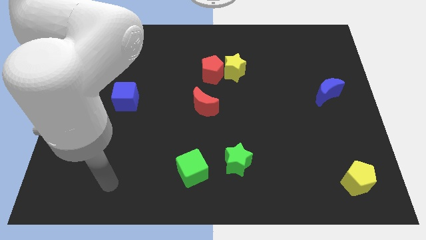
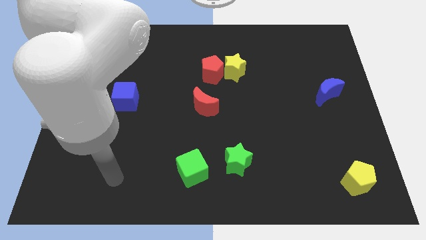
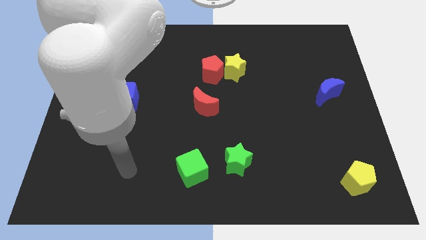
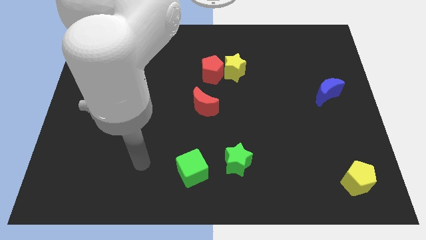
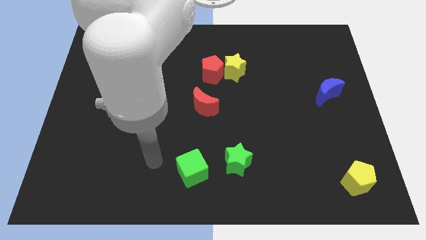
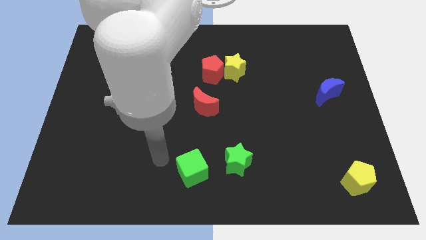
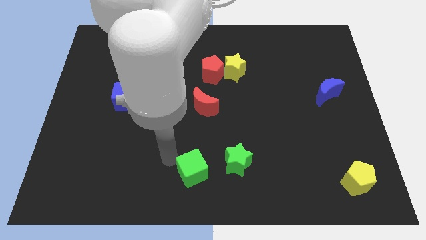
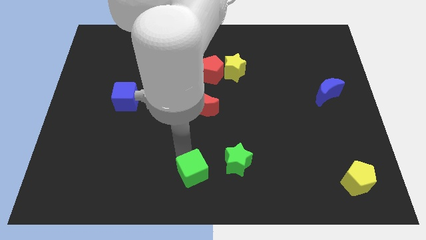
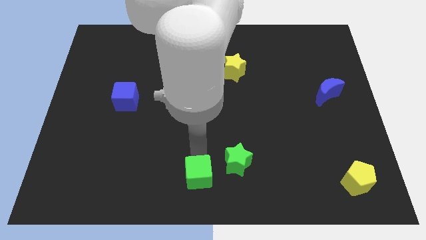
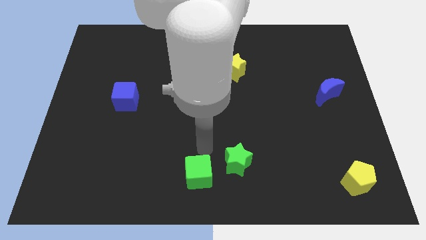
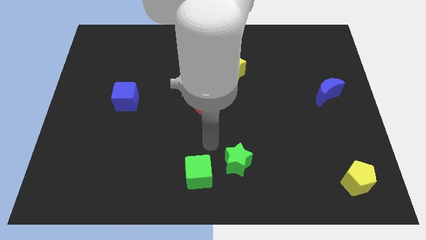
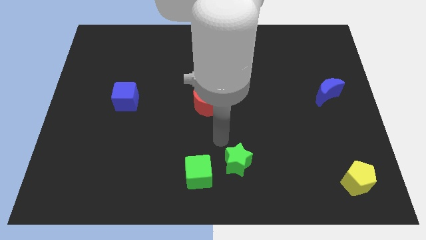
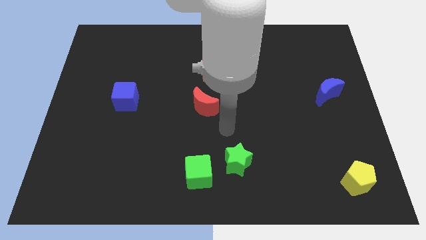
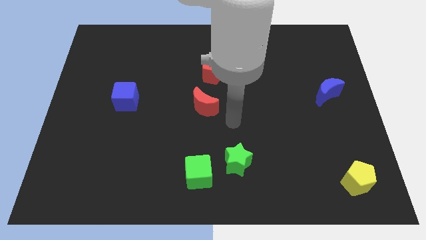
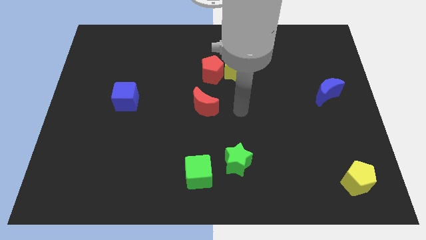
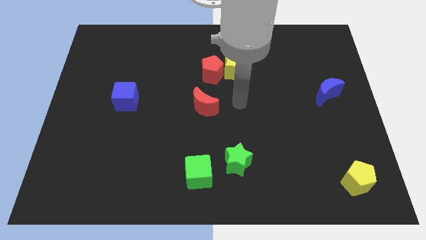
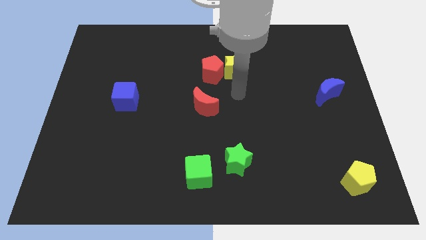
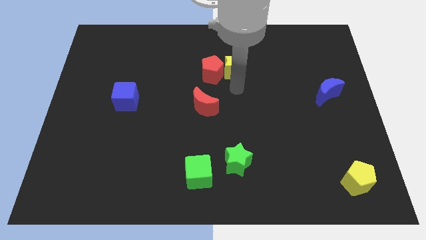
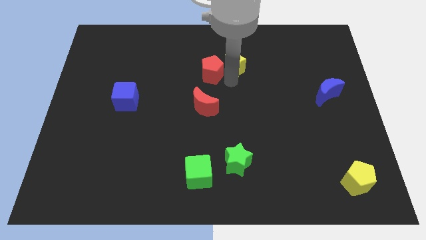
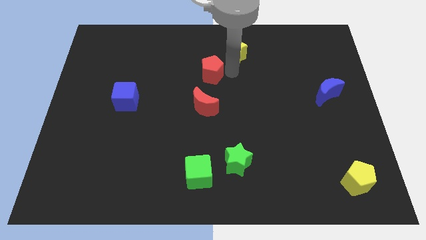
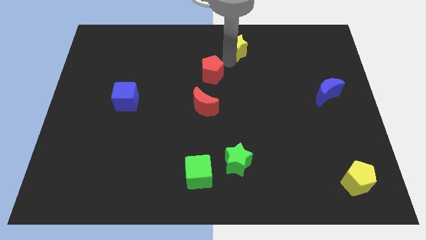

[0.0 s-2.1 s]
move the red pentagon away from the yellow star

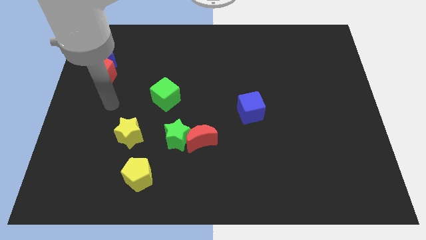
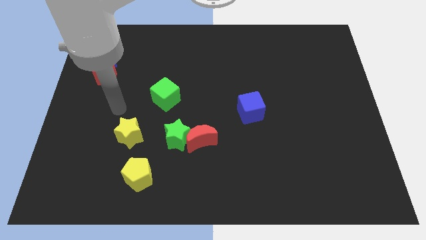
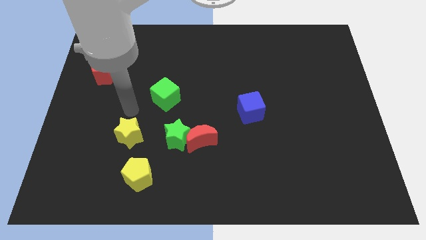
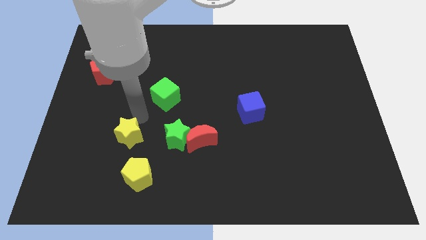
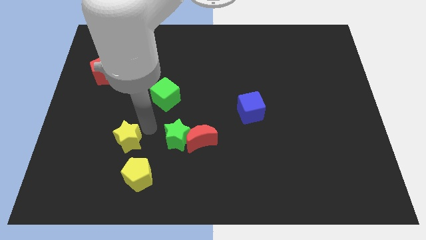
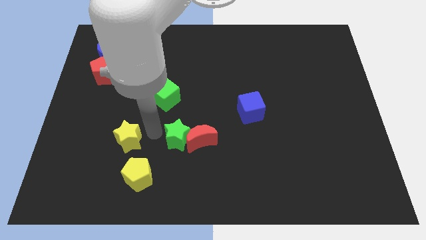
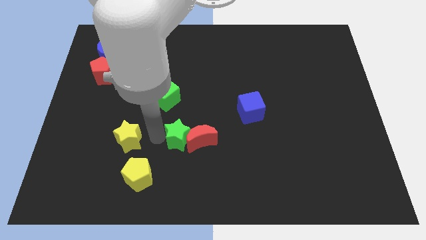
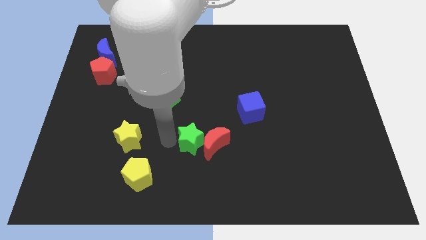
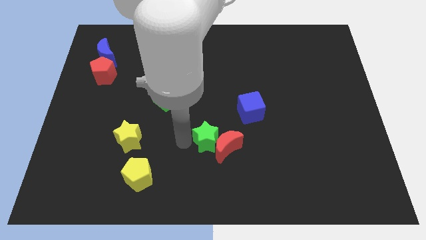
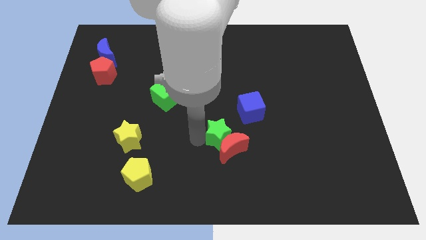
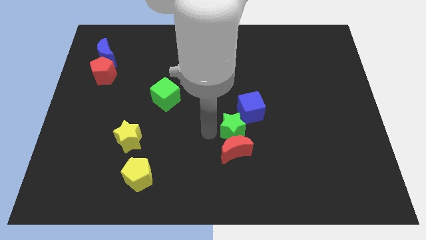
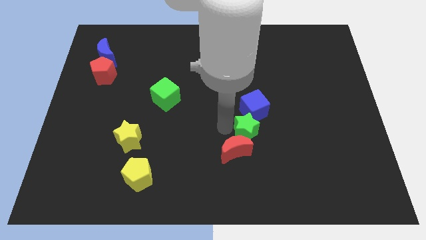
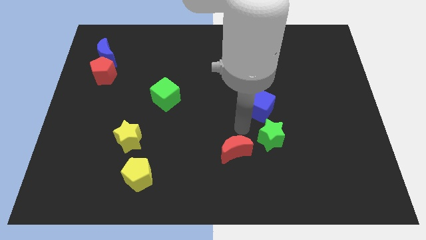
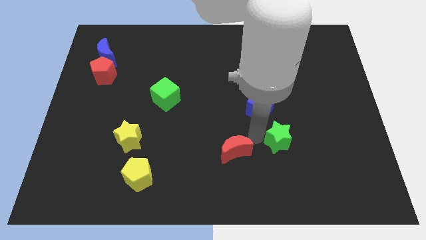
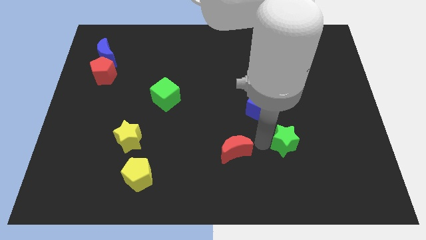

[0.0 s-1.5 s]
move the red moon away from the green star

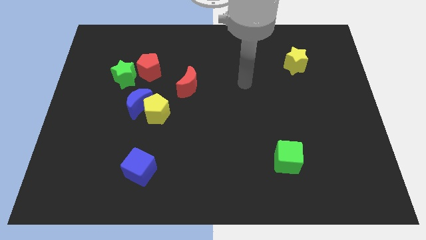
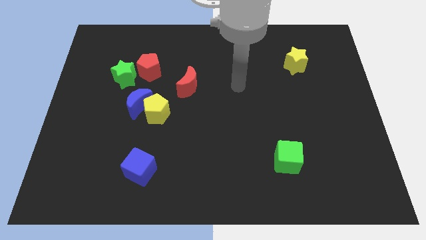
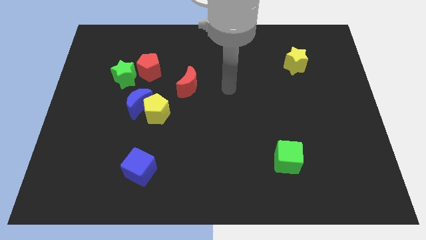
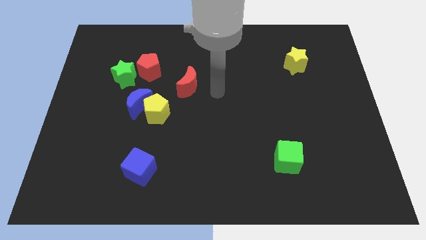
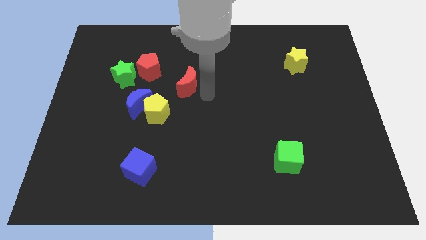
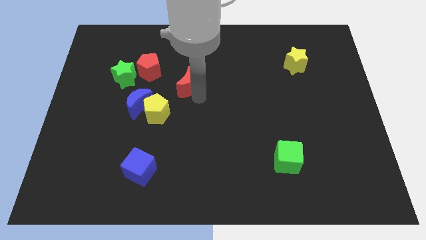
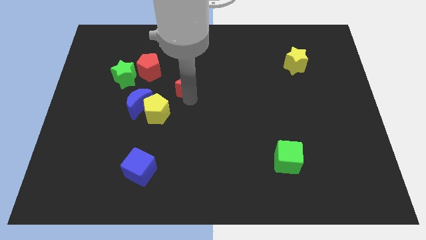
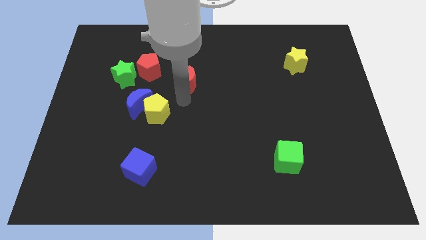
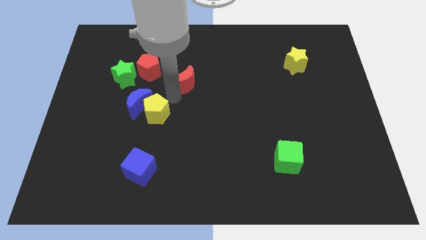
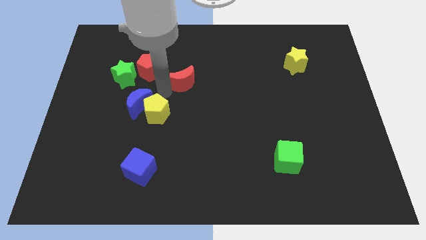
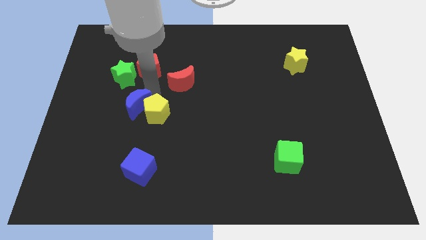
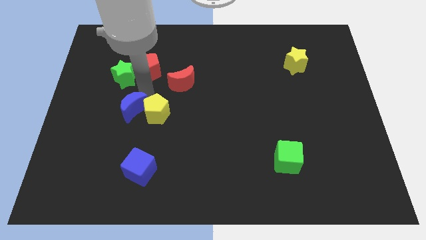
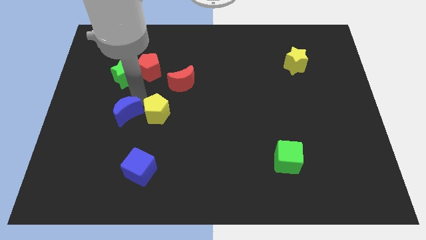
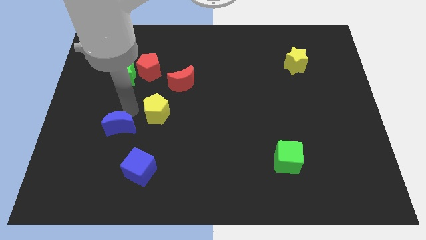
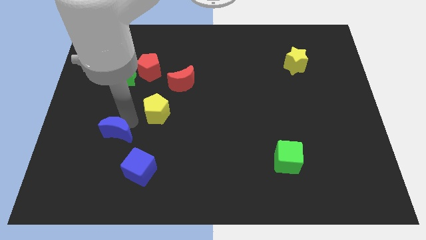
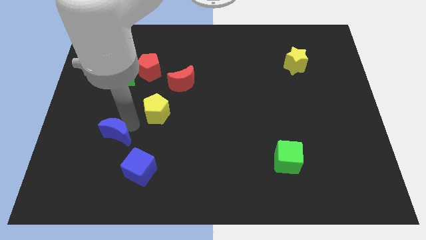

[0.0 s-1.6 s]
separate the yellow pentagon from the blue moon

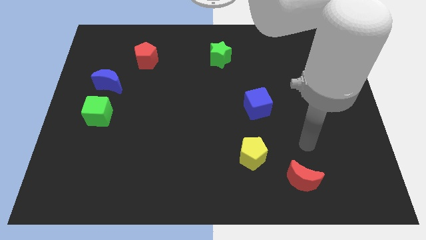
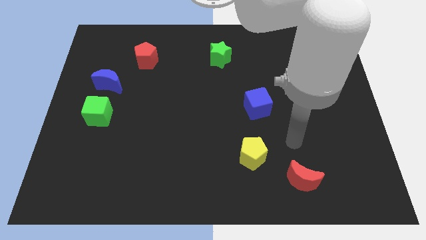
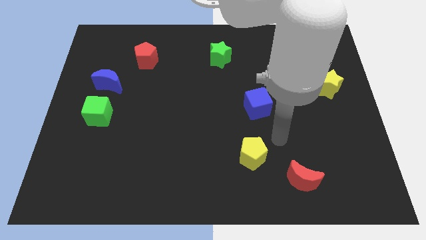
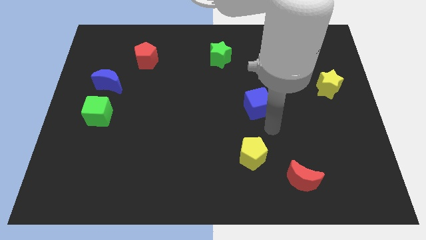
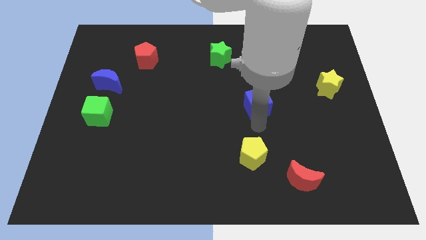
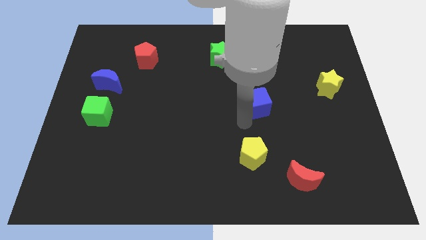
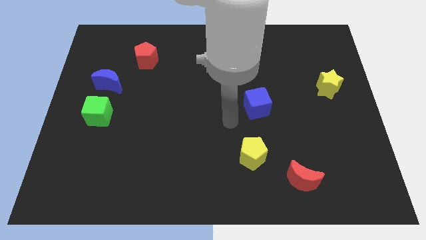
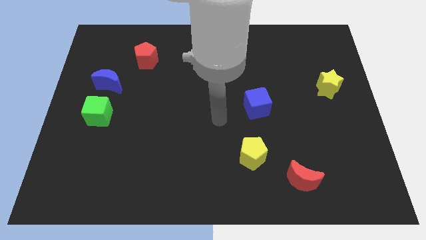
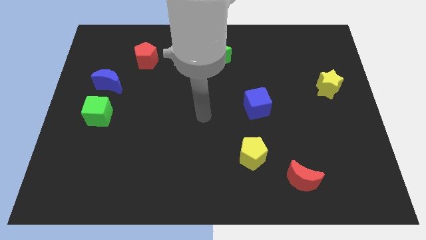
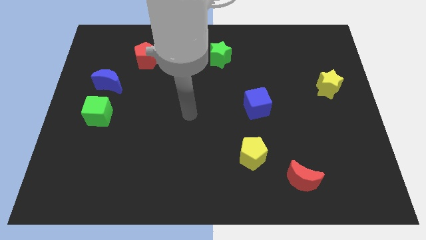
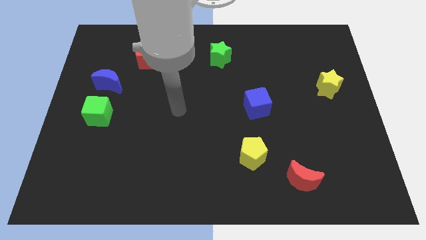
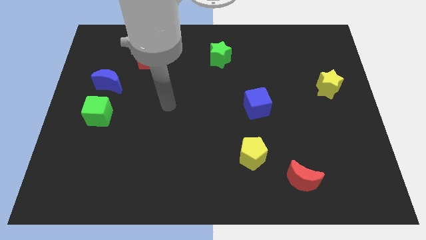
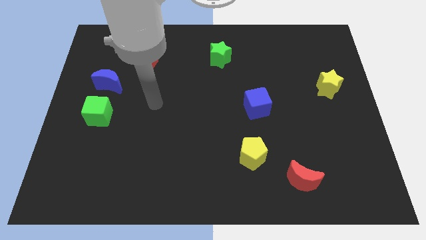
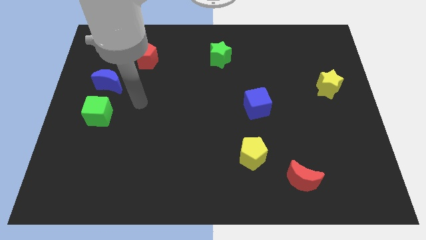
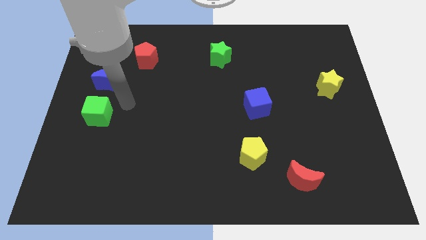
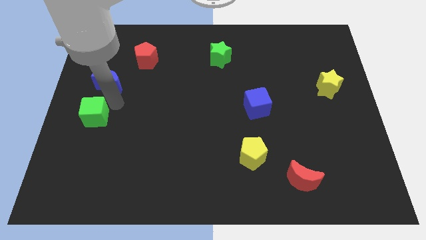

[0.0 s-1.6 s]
separate the blue moon from the green cube

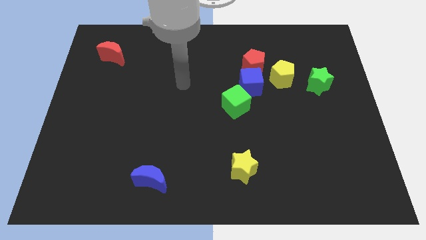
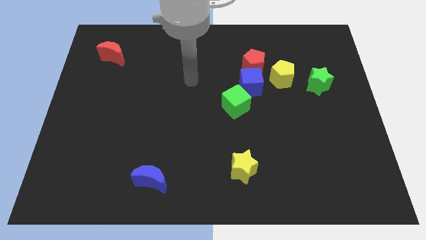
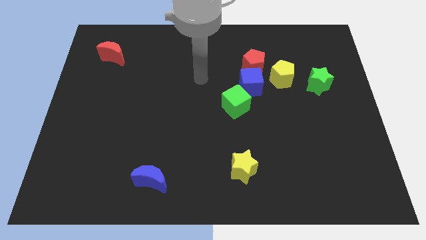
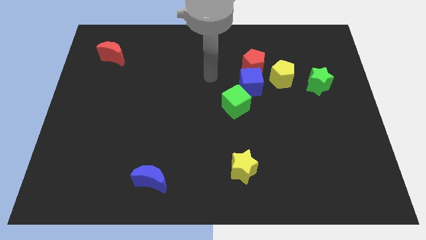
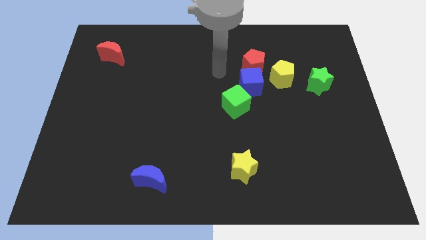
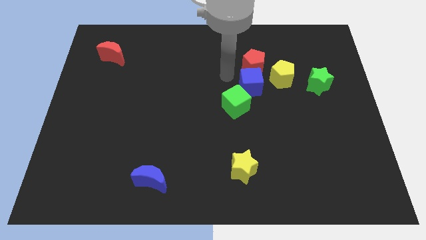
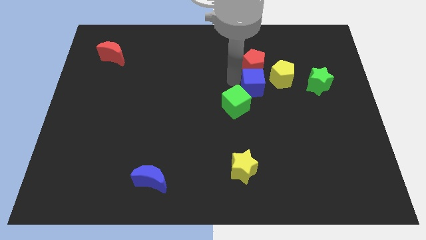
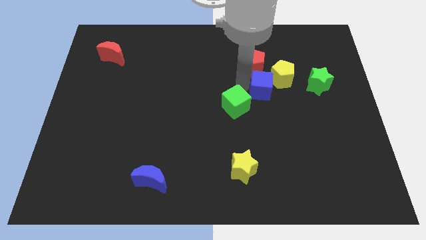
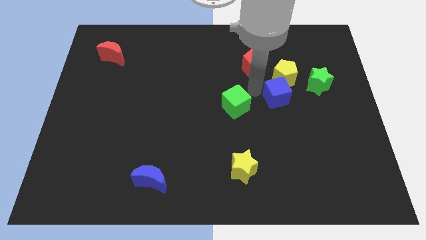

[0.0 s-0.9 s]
separate the green cube from the blue cube

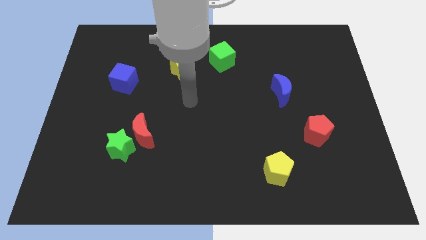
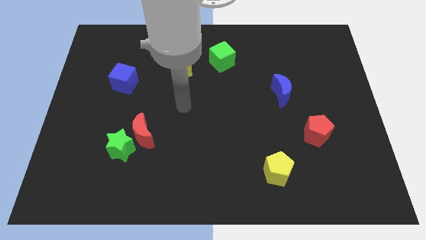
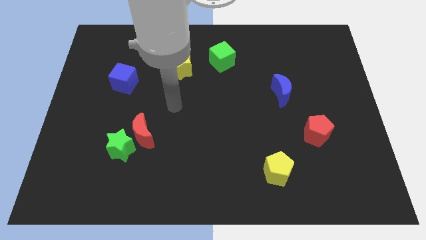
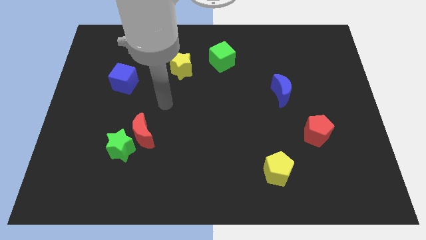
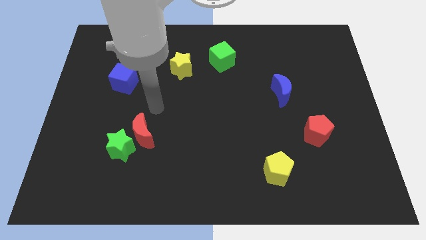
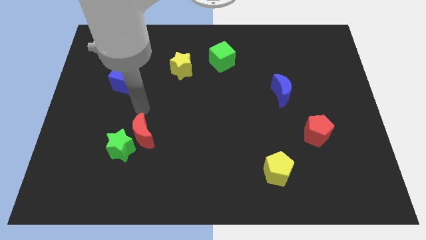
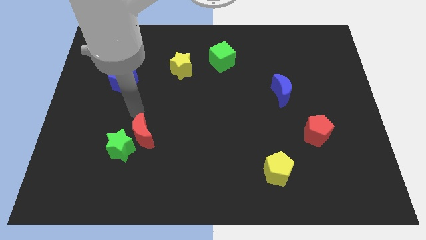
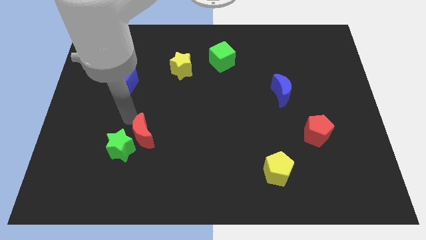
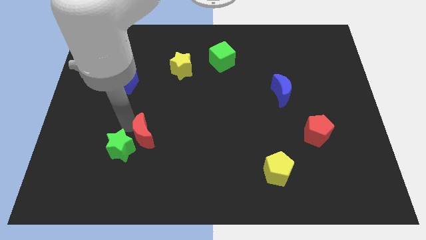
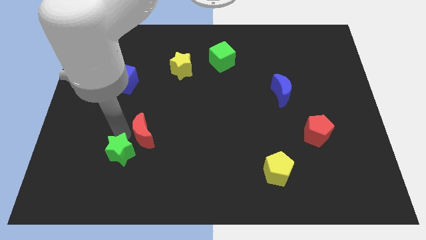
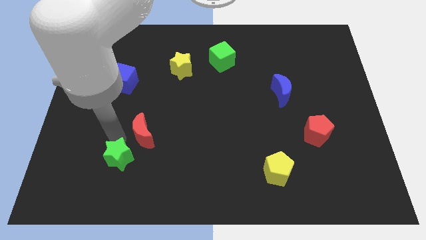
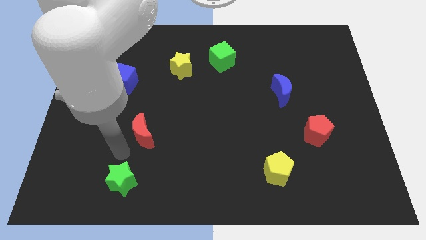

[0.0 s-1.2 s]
pull the red moon apart from the green star

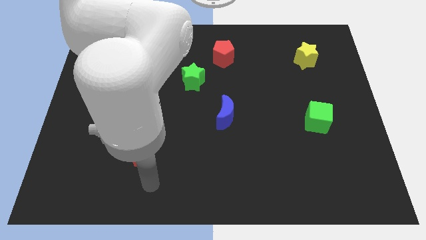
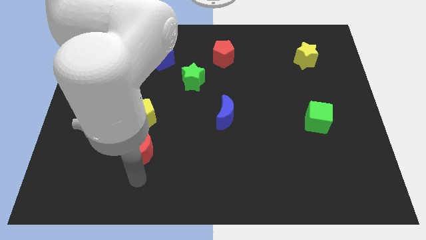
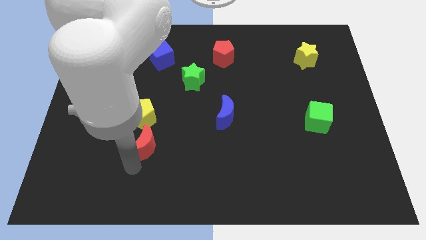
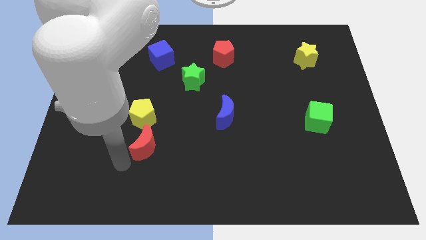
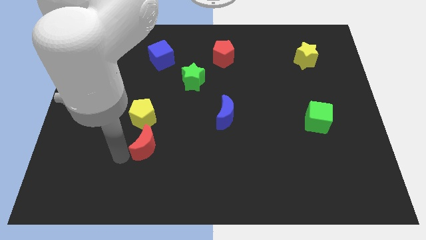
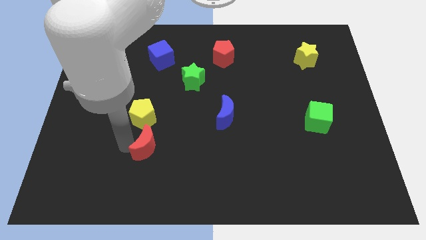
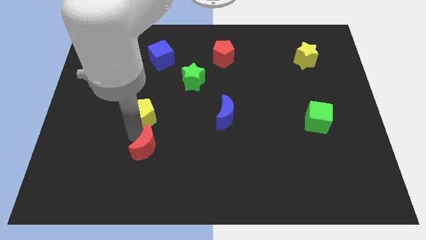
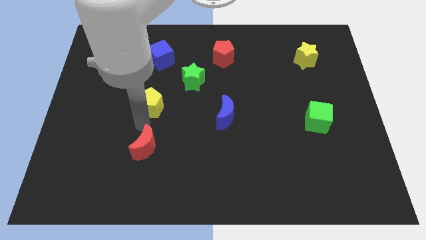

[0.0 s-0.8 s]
pull the red moon apart from the yellow pentagon
